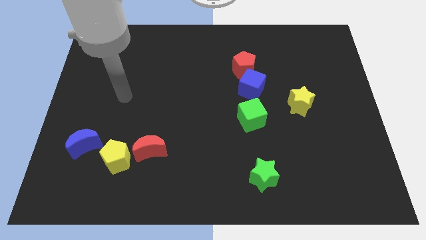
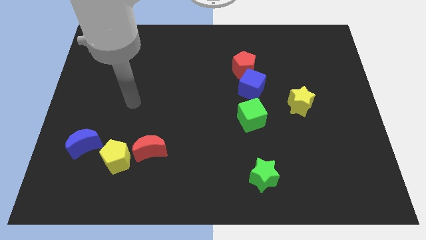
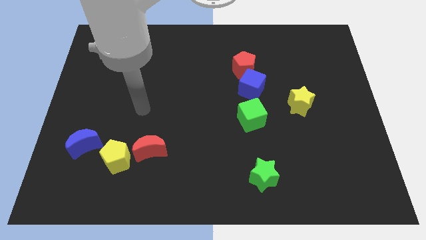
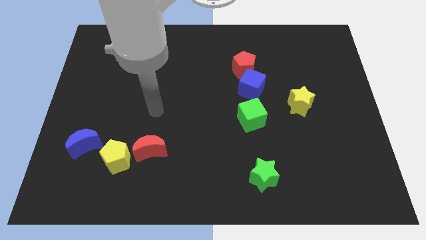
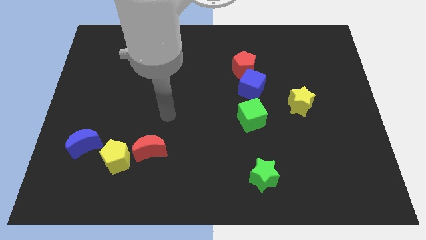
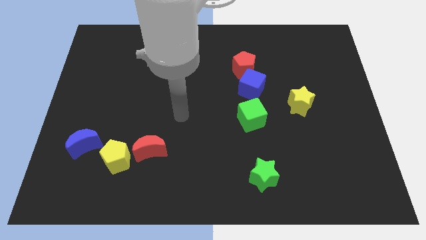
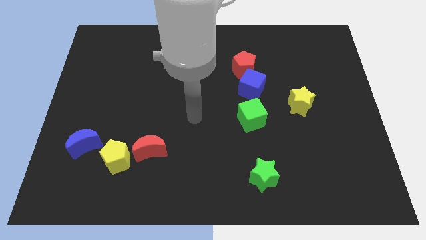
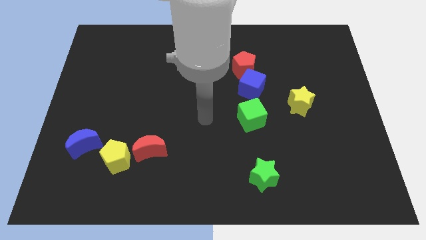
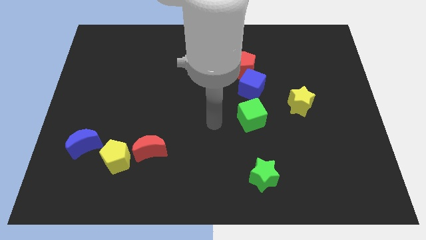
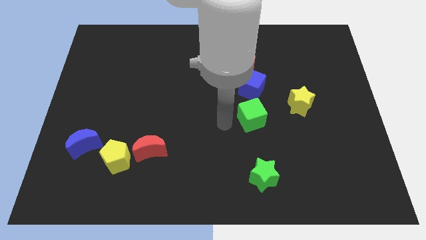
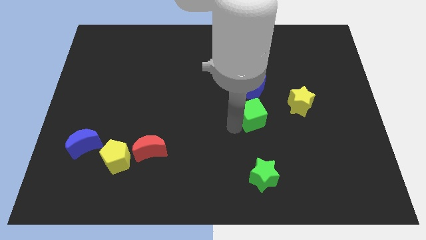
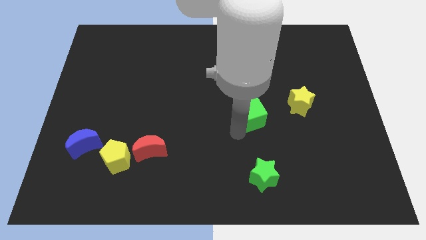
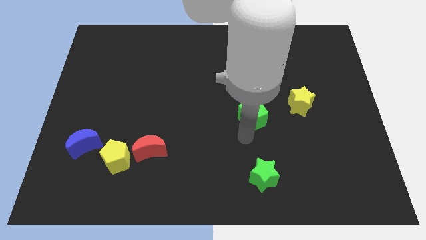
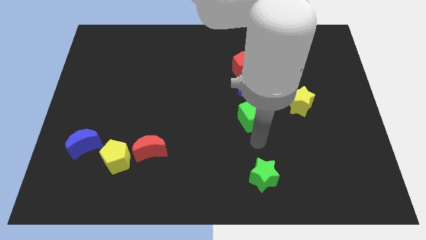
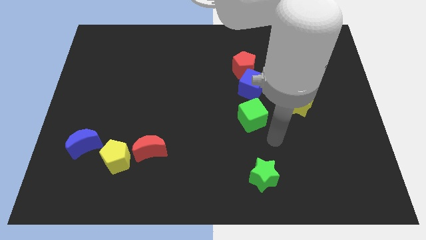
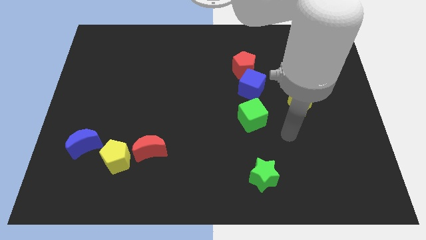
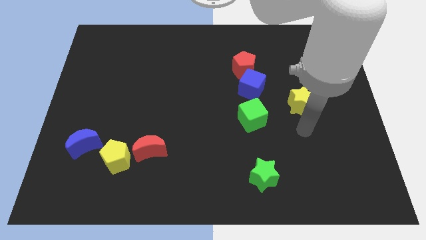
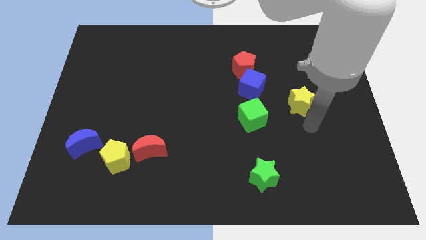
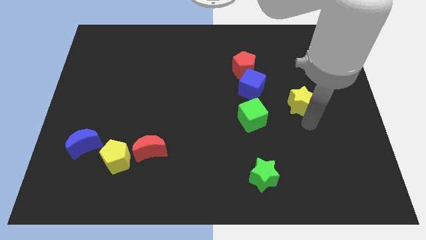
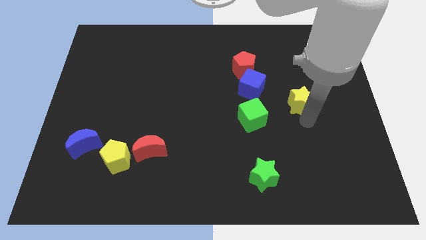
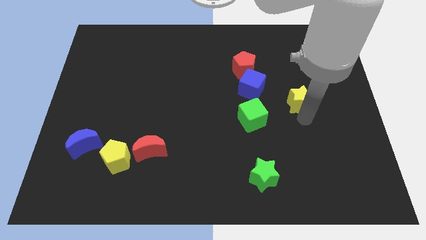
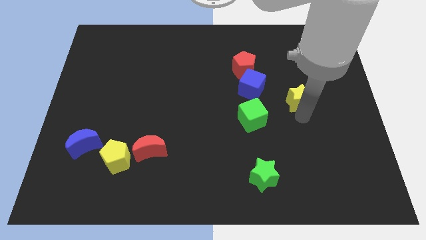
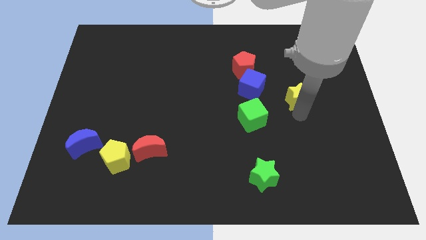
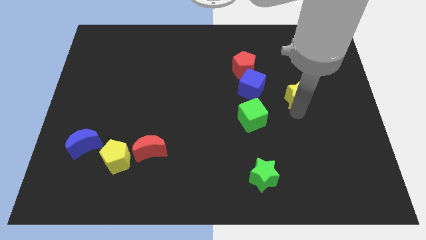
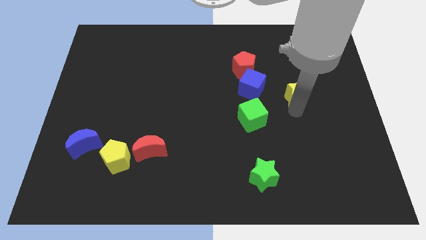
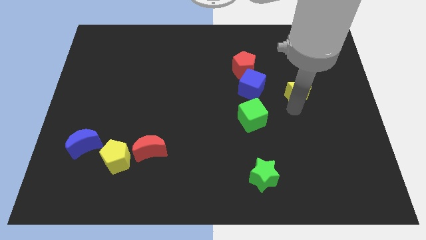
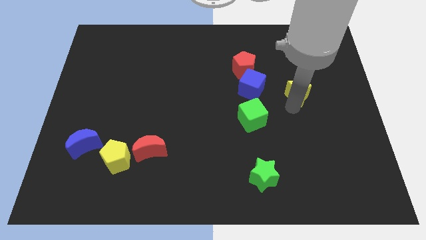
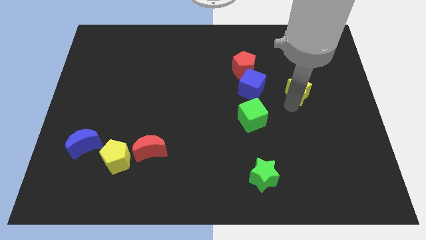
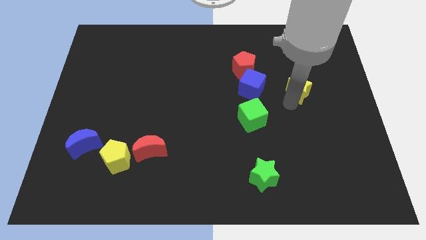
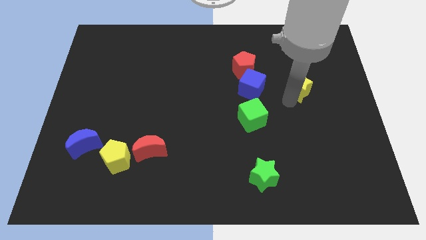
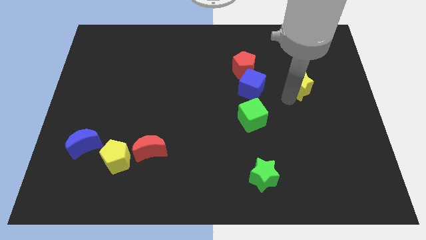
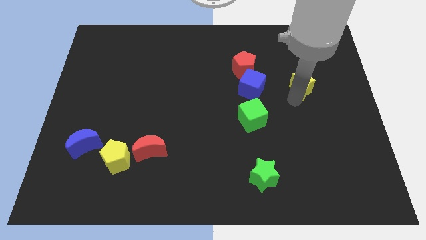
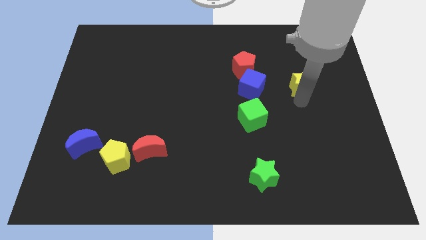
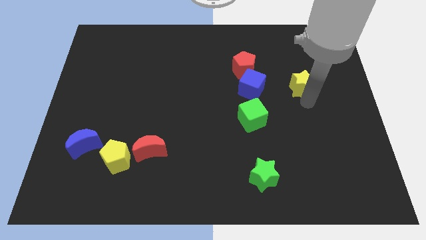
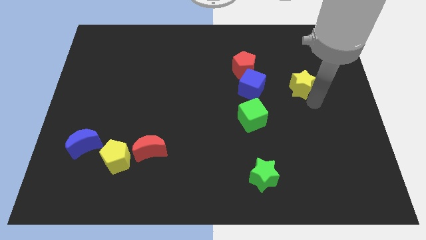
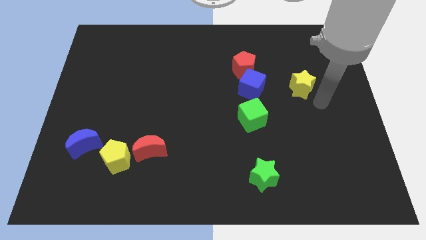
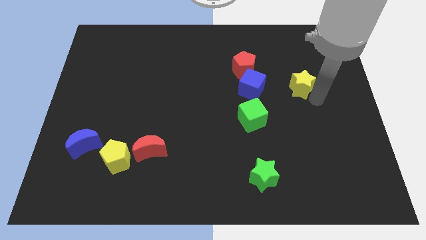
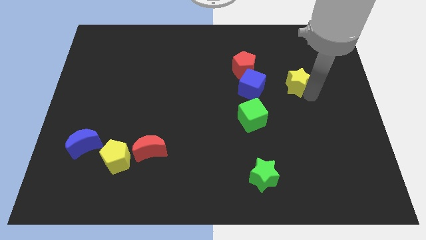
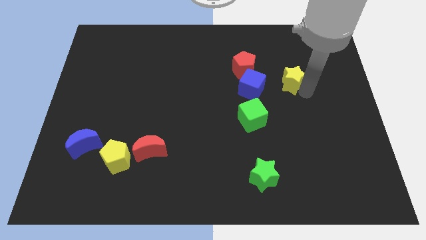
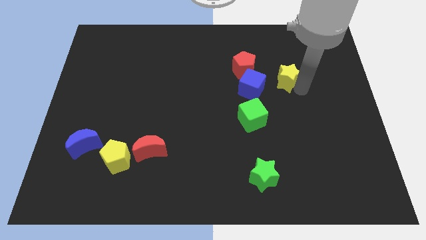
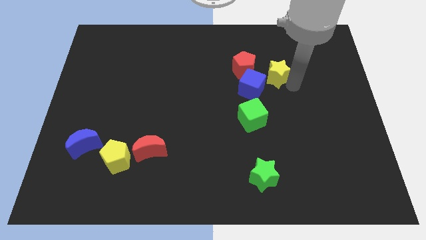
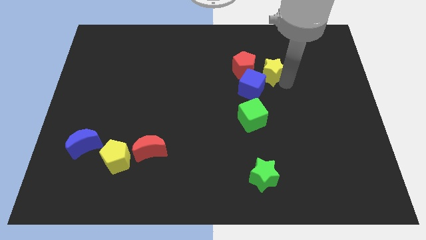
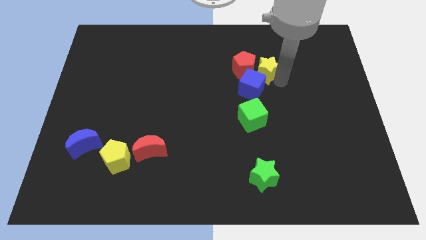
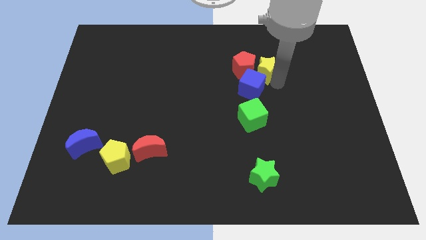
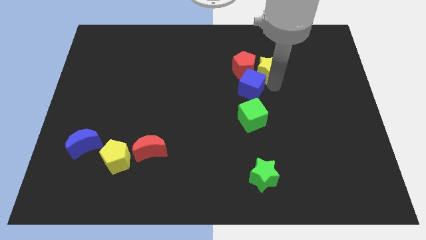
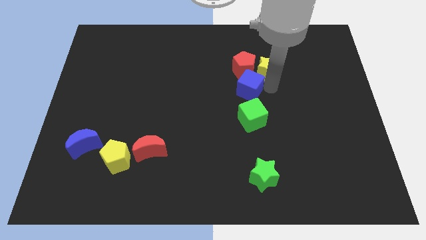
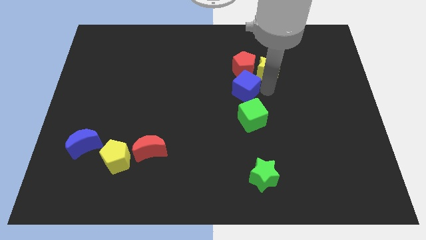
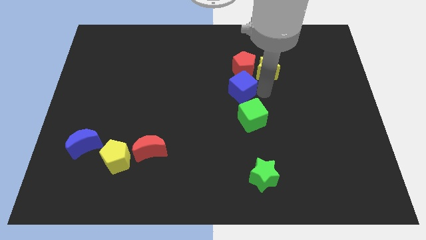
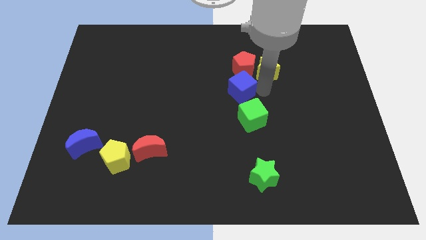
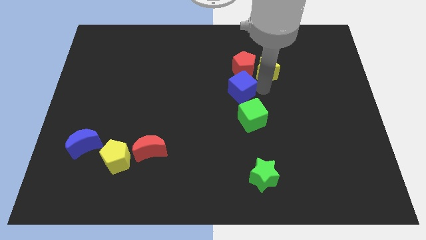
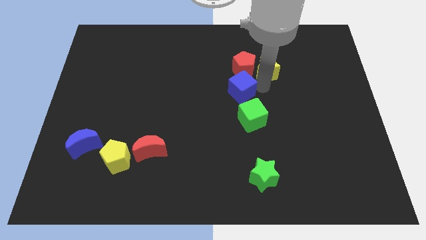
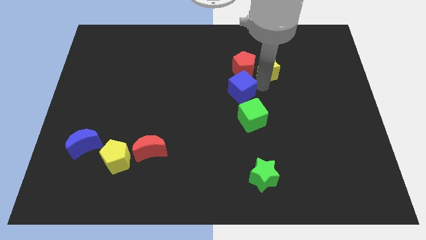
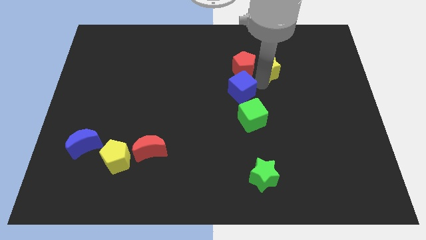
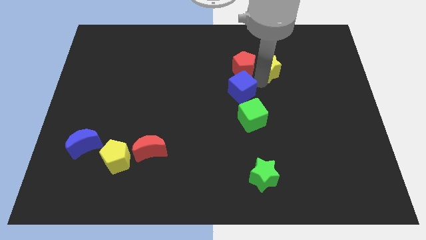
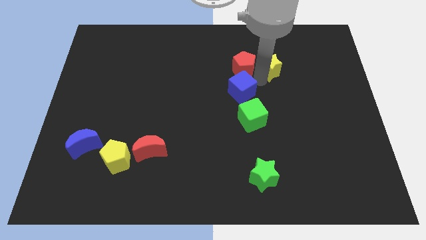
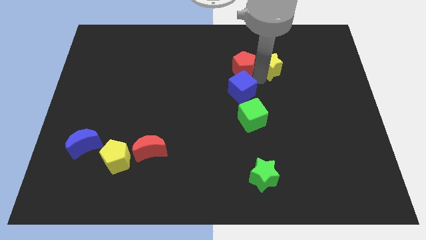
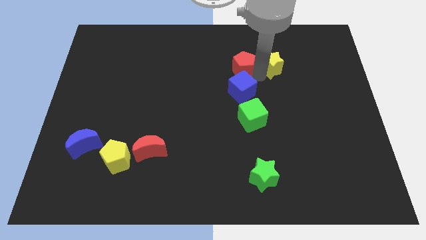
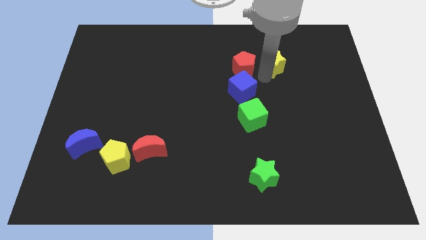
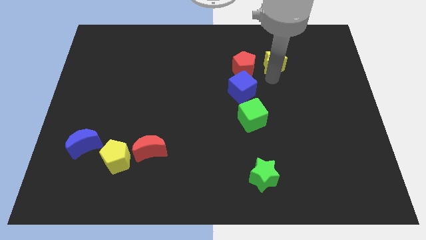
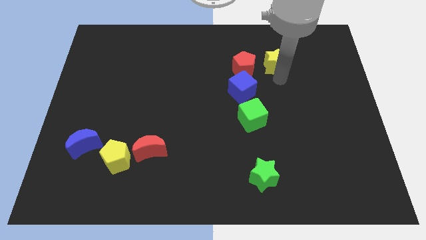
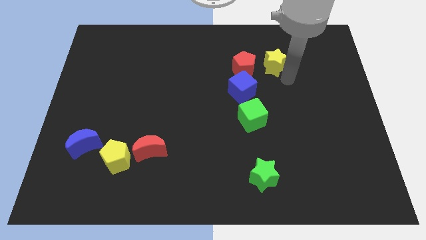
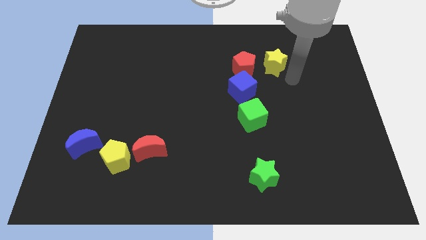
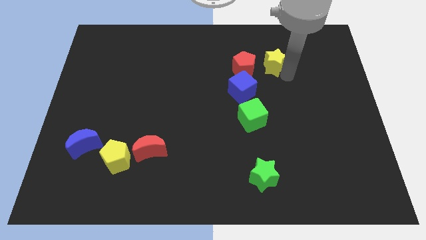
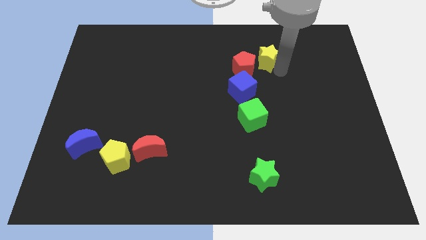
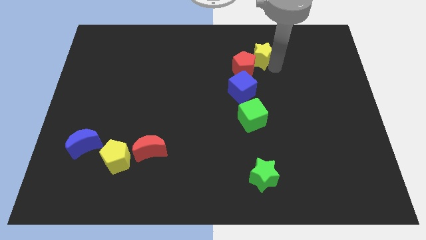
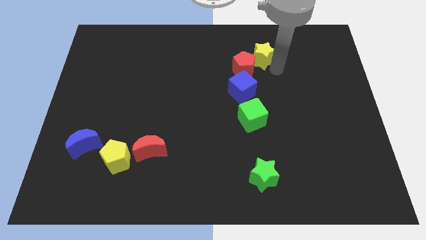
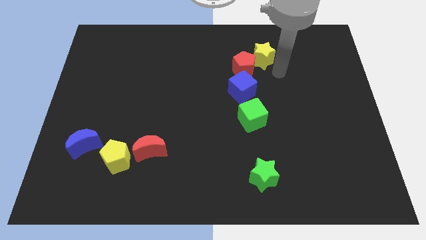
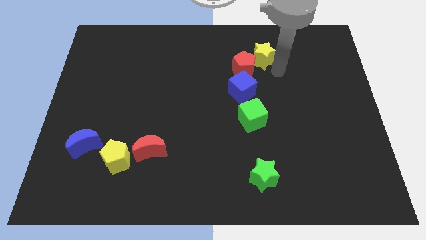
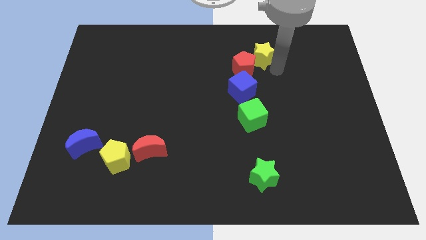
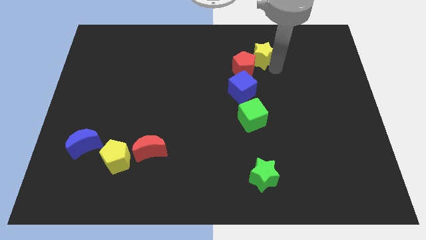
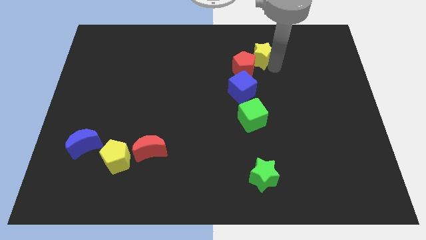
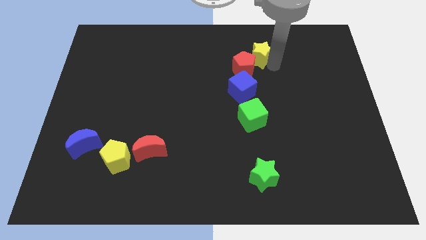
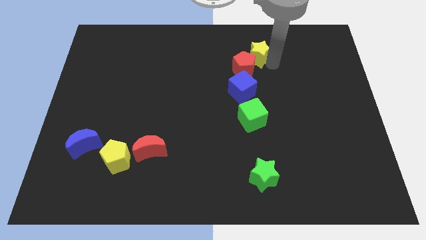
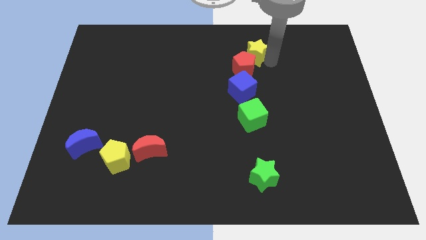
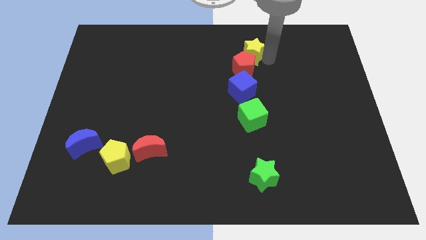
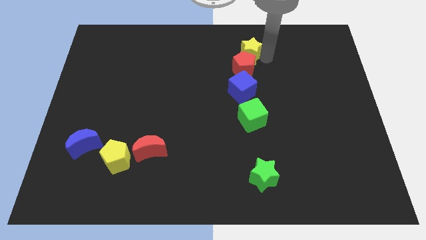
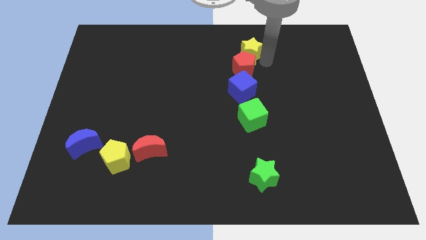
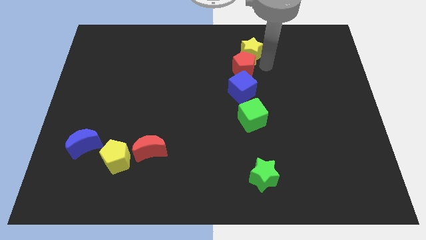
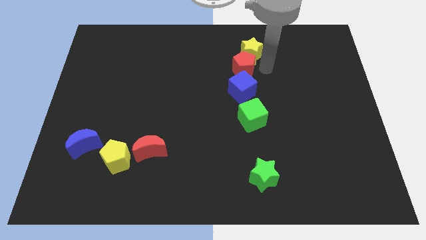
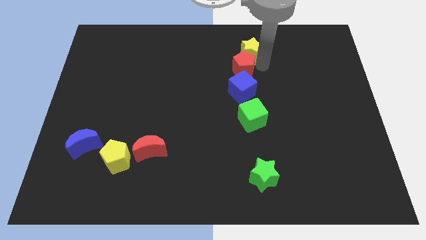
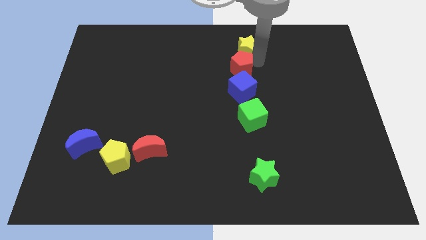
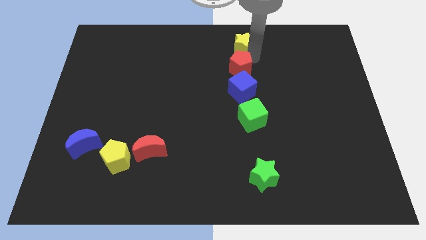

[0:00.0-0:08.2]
put the yellow star to the top
